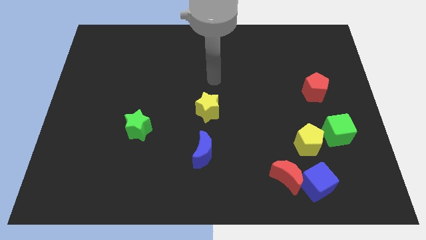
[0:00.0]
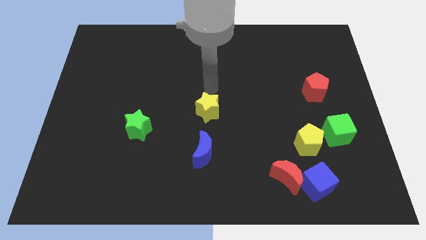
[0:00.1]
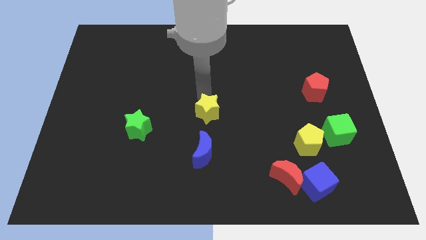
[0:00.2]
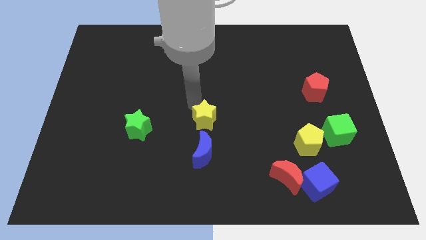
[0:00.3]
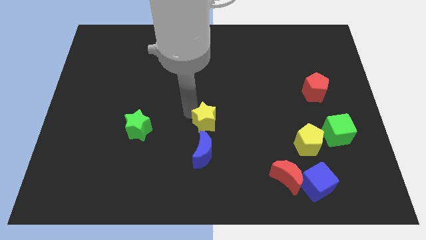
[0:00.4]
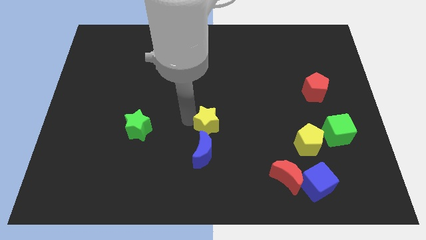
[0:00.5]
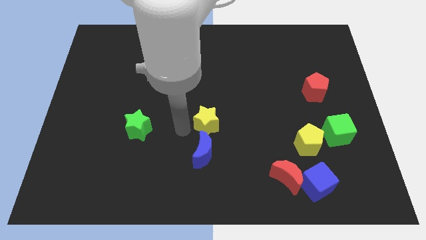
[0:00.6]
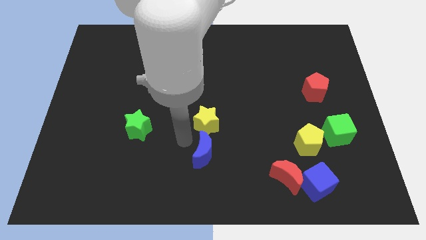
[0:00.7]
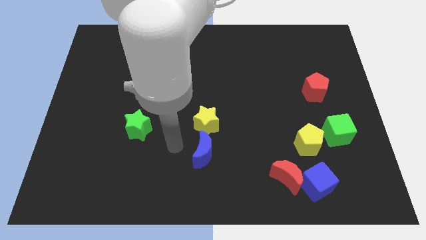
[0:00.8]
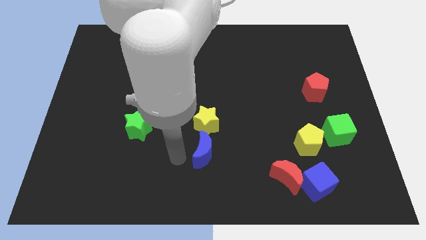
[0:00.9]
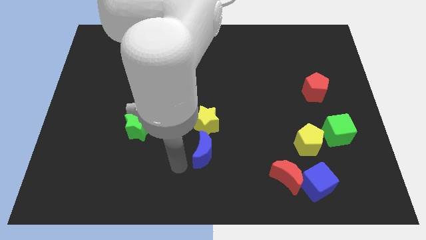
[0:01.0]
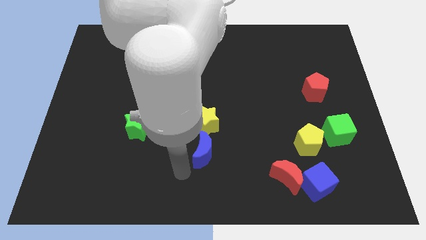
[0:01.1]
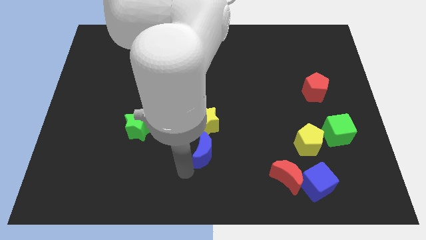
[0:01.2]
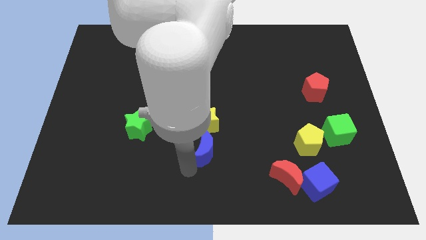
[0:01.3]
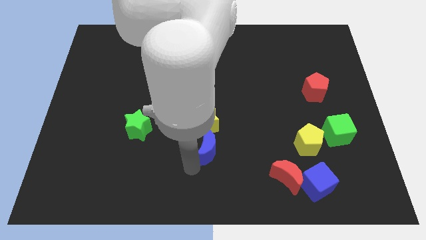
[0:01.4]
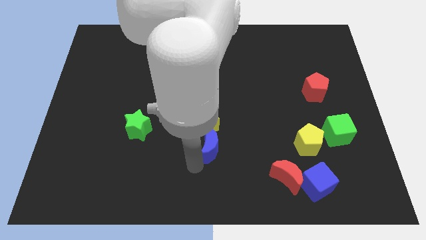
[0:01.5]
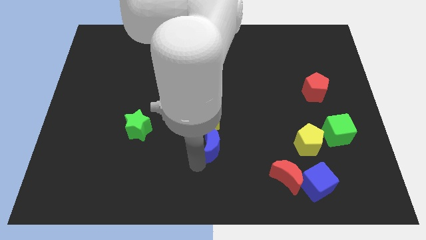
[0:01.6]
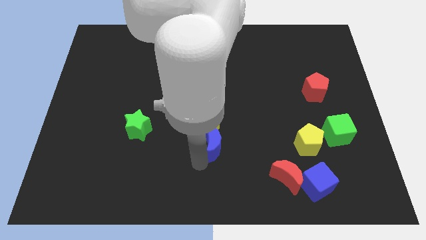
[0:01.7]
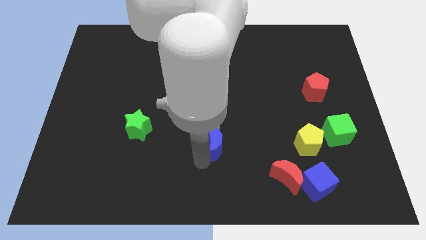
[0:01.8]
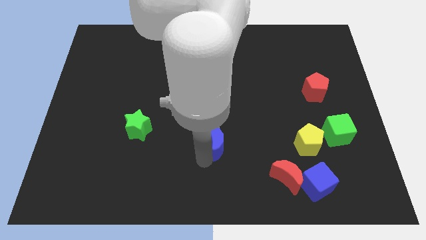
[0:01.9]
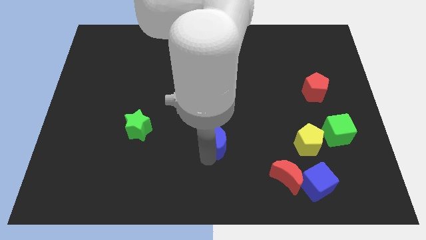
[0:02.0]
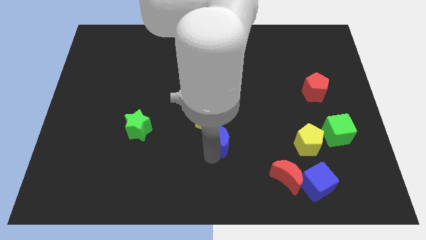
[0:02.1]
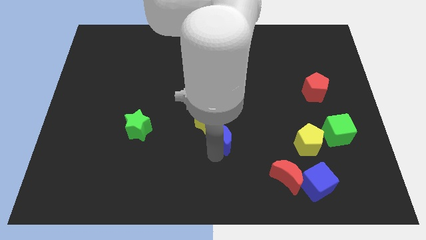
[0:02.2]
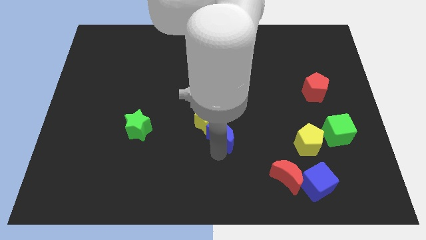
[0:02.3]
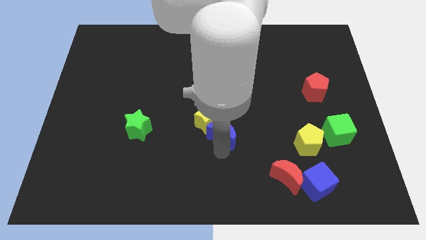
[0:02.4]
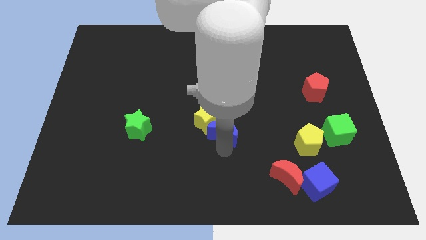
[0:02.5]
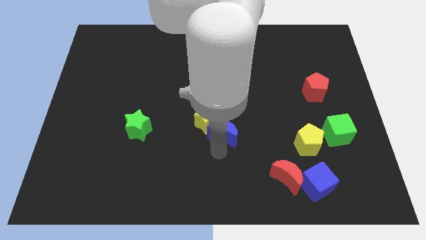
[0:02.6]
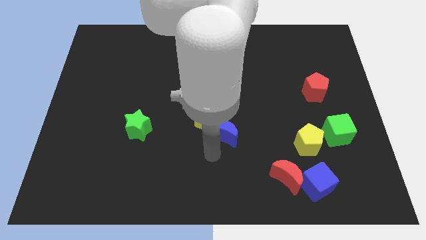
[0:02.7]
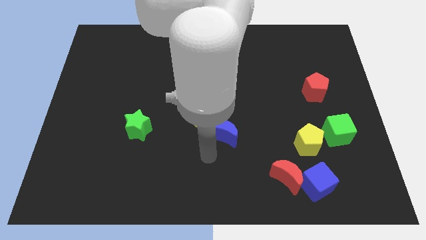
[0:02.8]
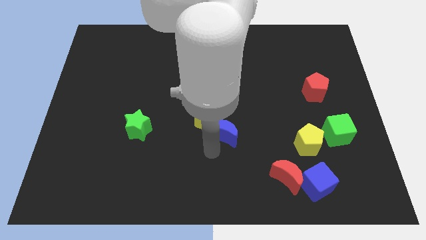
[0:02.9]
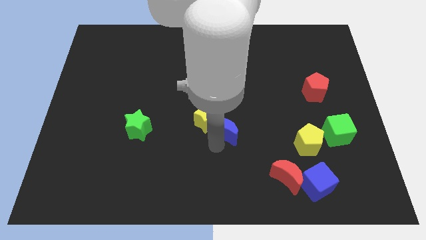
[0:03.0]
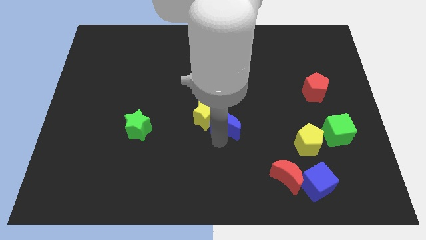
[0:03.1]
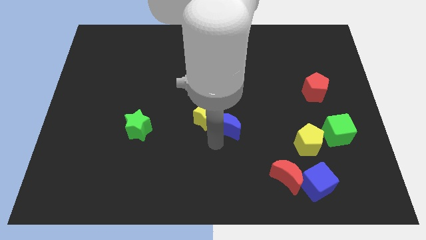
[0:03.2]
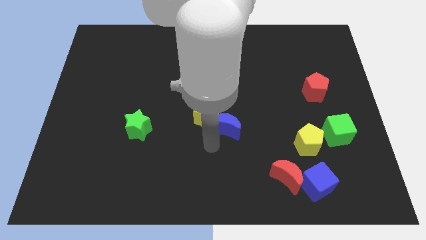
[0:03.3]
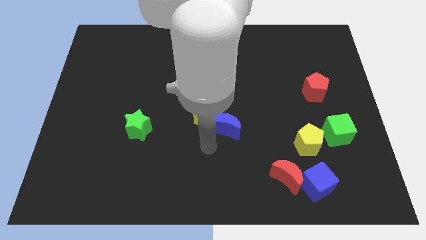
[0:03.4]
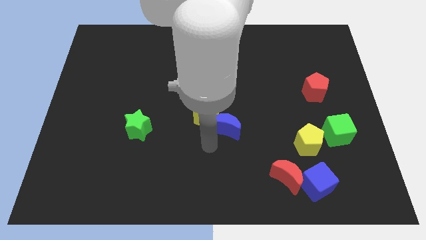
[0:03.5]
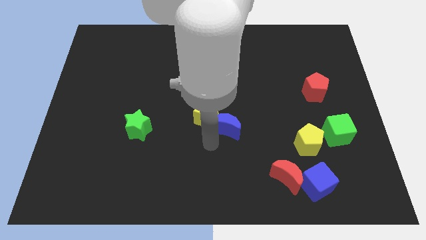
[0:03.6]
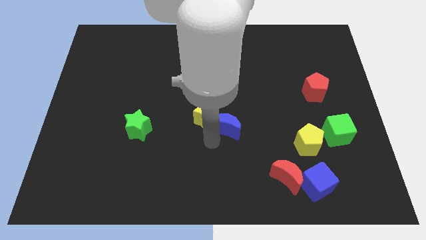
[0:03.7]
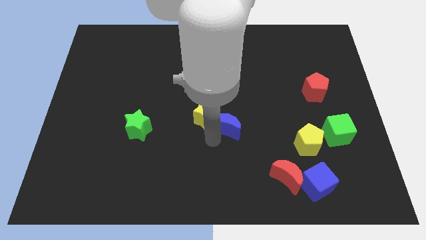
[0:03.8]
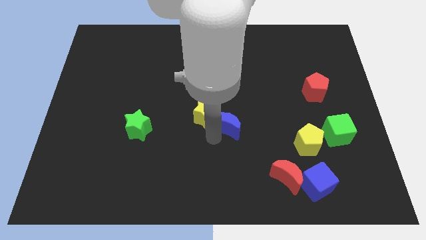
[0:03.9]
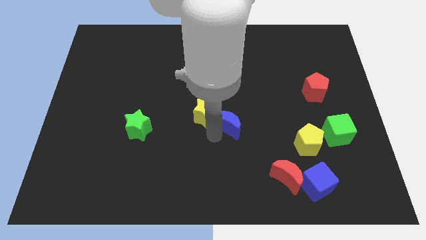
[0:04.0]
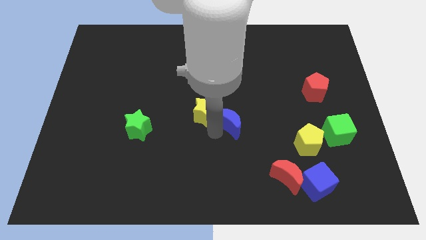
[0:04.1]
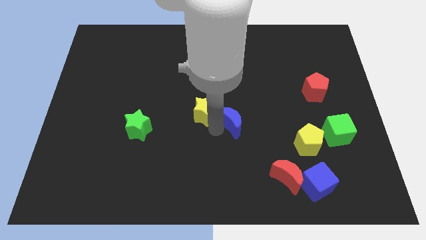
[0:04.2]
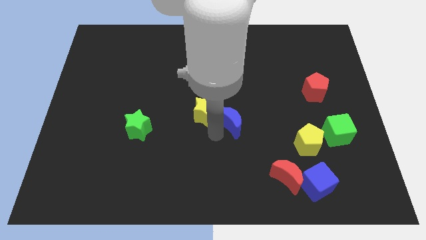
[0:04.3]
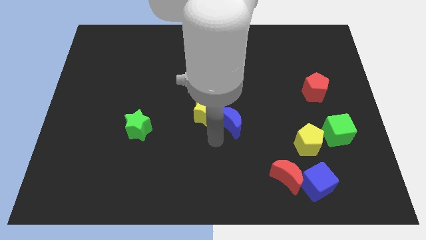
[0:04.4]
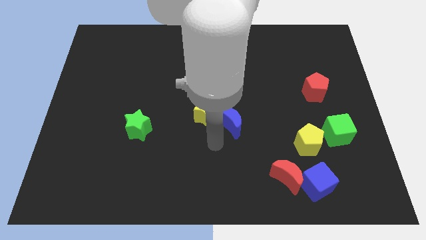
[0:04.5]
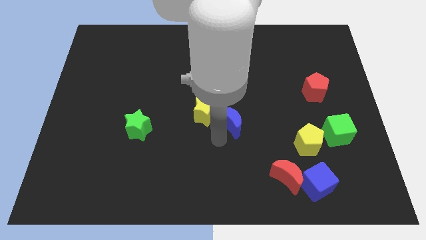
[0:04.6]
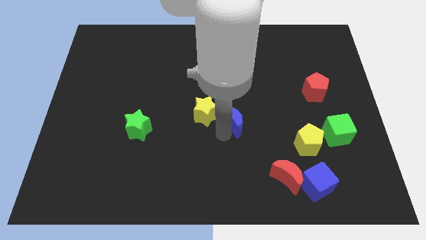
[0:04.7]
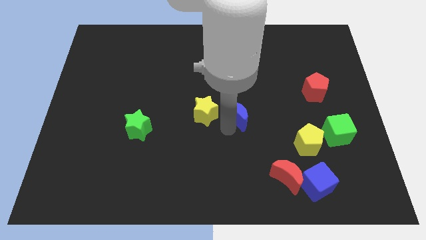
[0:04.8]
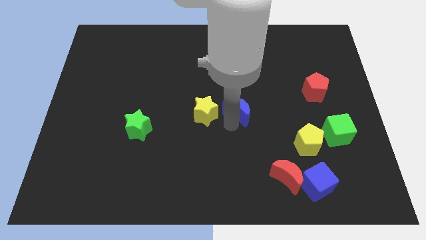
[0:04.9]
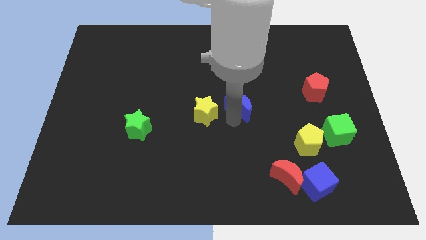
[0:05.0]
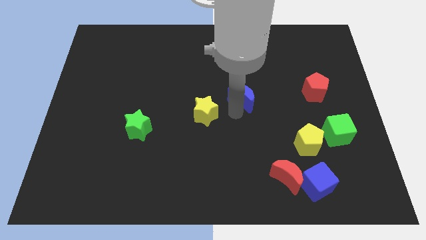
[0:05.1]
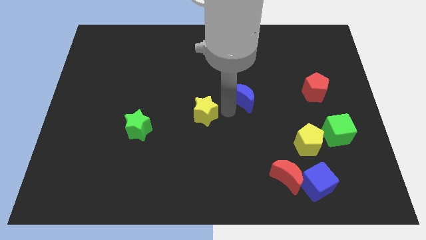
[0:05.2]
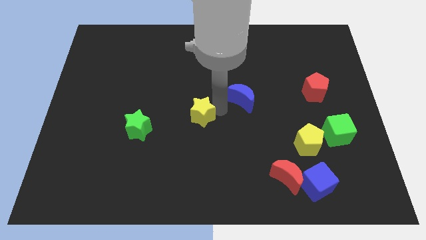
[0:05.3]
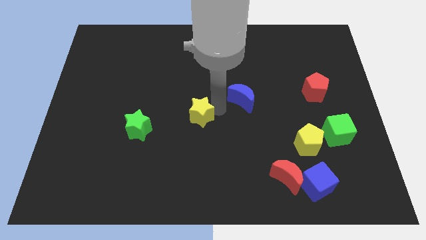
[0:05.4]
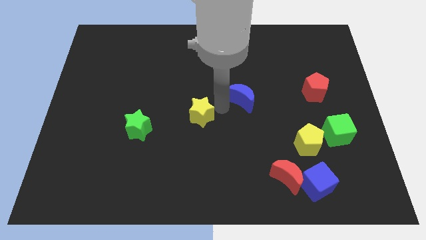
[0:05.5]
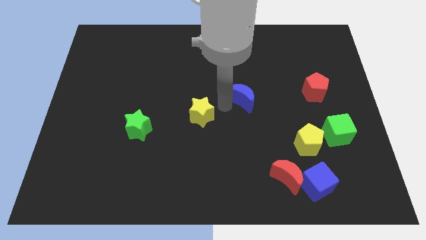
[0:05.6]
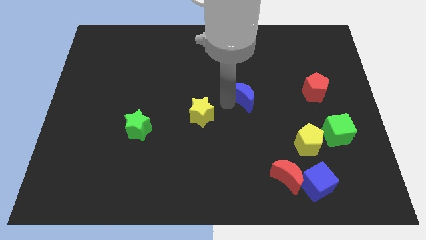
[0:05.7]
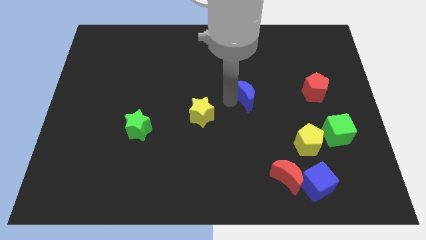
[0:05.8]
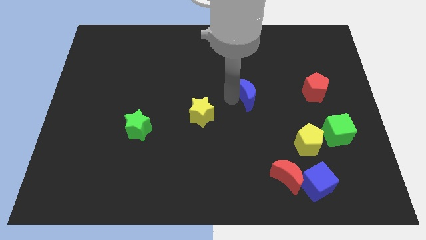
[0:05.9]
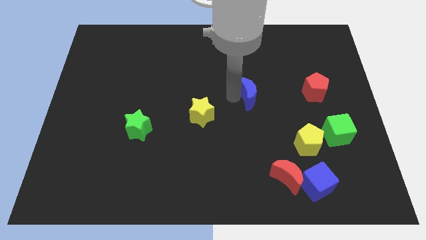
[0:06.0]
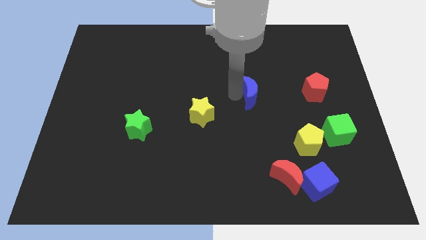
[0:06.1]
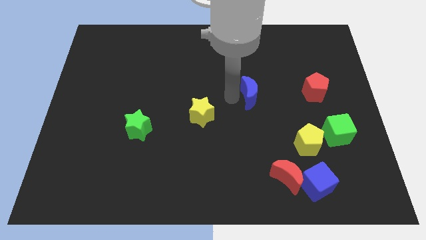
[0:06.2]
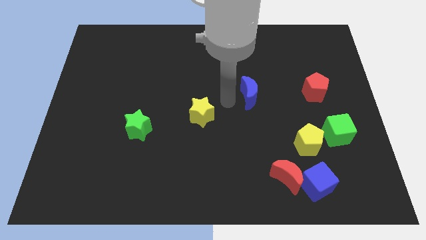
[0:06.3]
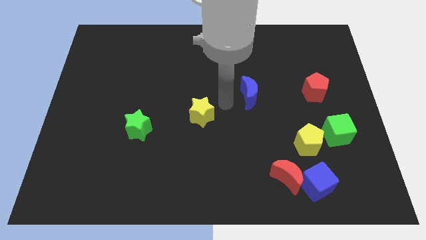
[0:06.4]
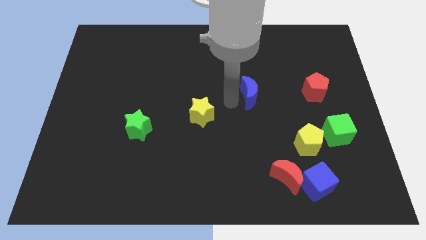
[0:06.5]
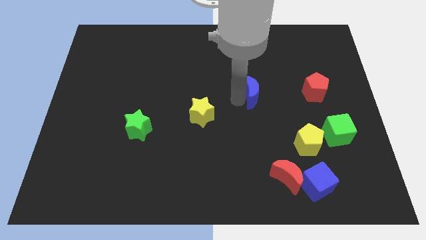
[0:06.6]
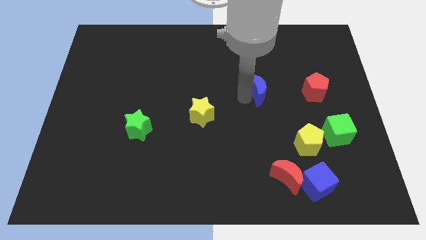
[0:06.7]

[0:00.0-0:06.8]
move the blue moon up and right

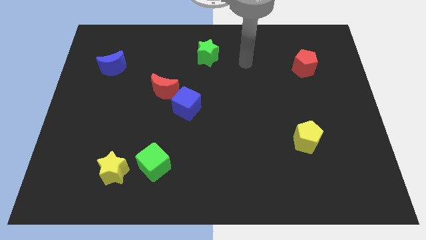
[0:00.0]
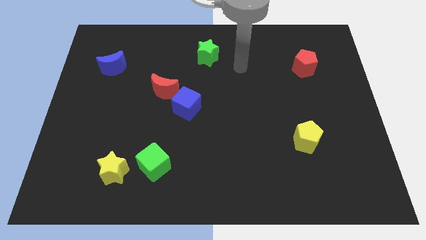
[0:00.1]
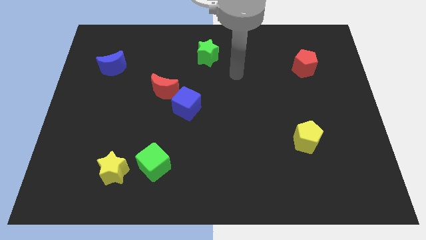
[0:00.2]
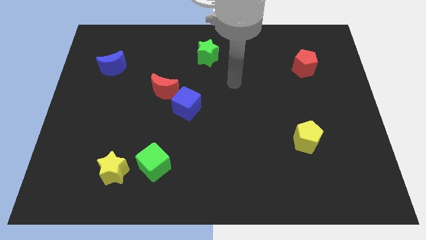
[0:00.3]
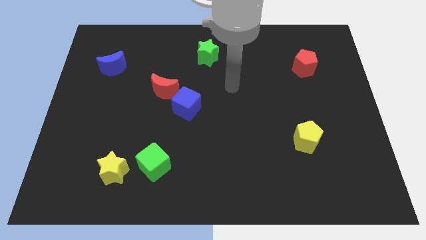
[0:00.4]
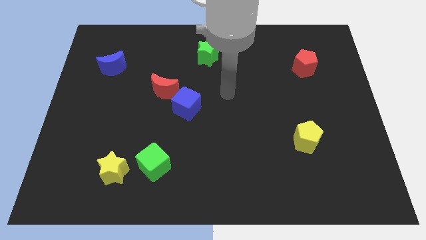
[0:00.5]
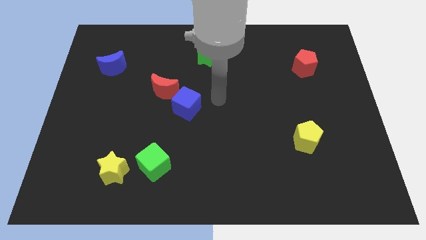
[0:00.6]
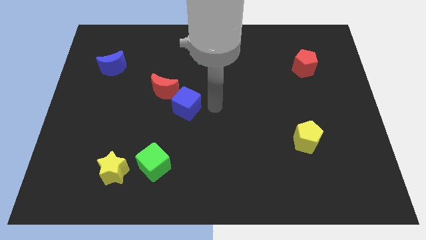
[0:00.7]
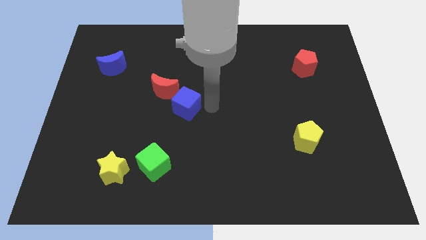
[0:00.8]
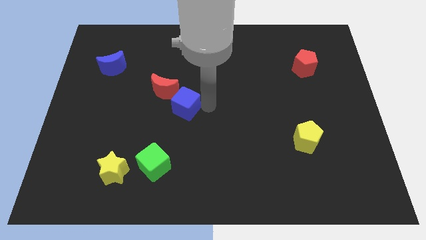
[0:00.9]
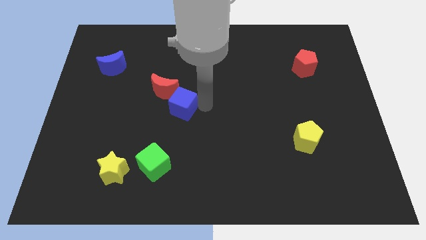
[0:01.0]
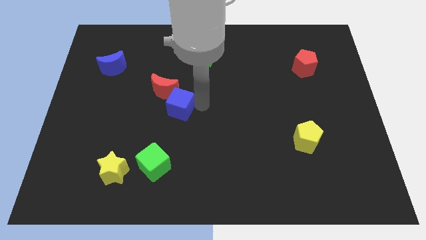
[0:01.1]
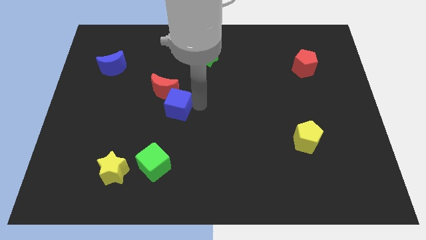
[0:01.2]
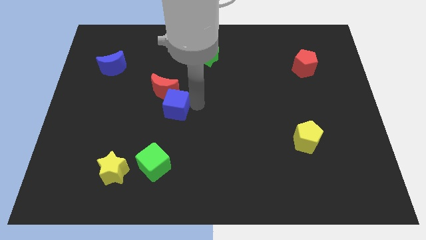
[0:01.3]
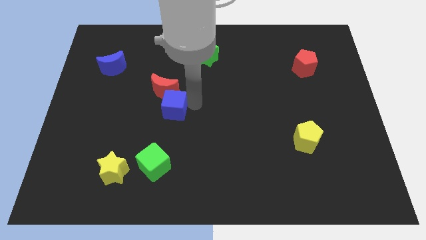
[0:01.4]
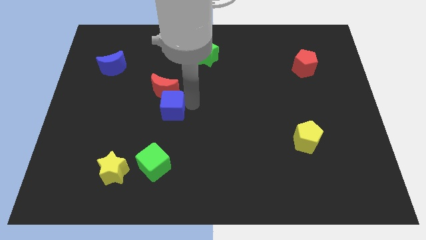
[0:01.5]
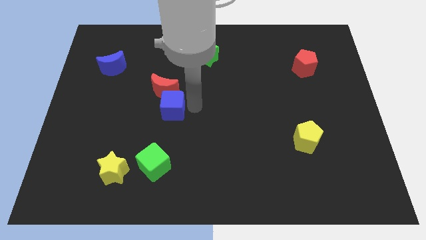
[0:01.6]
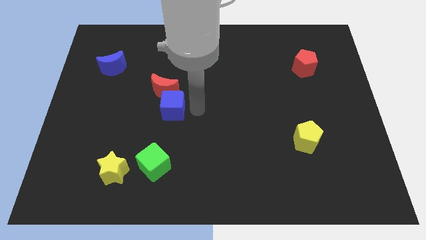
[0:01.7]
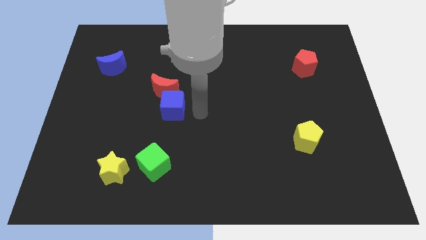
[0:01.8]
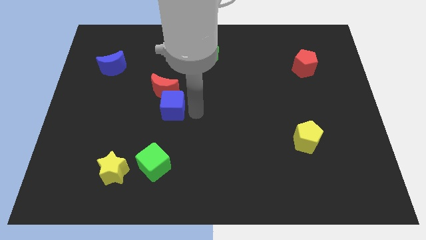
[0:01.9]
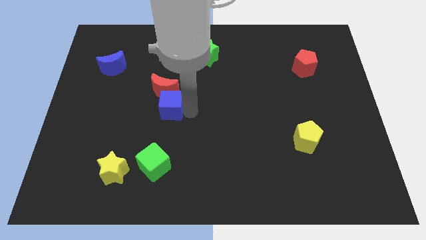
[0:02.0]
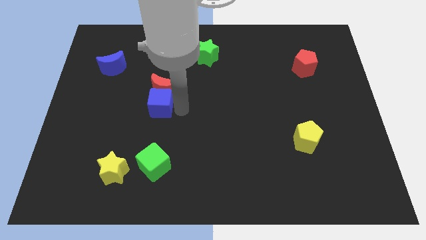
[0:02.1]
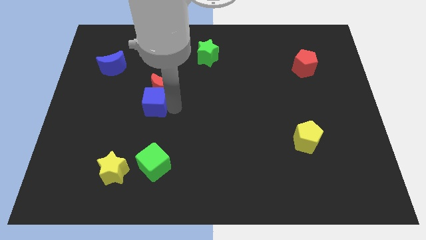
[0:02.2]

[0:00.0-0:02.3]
slide the blue cube slightly to the left
